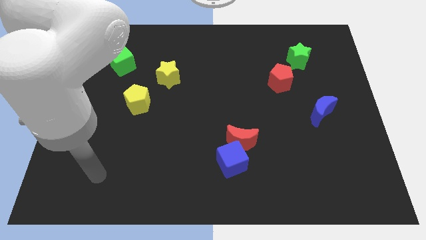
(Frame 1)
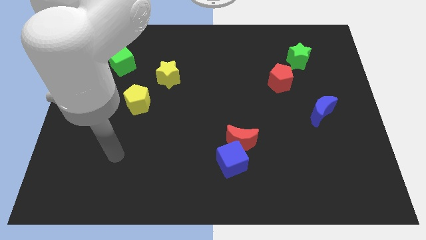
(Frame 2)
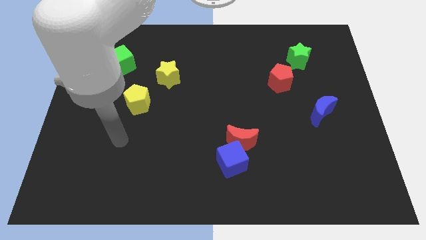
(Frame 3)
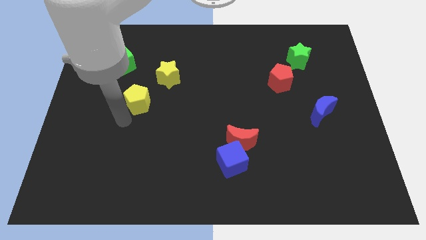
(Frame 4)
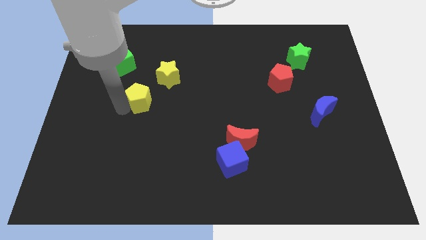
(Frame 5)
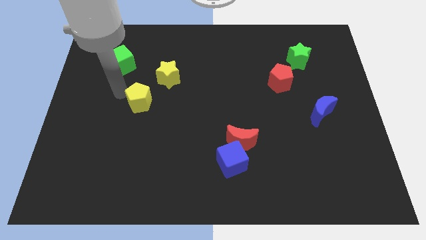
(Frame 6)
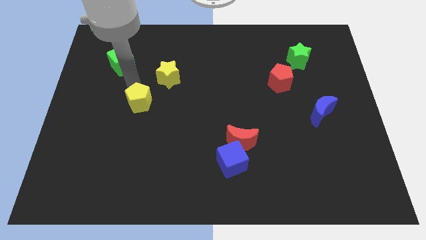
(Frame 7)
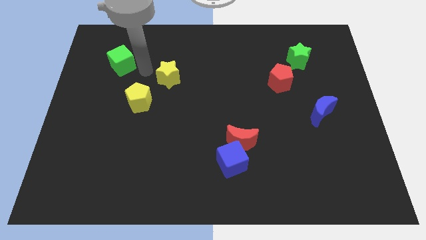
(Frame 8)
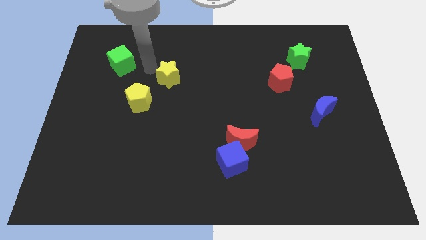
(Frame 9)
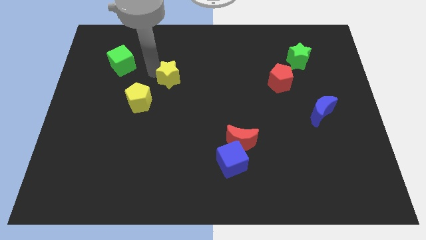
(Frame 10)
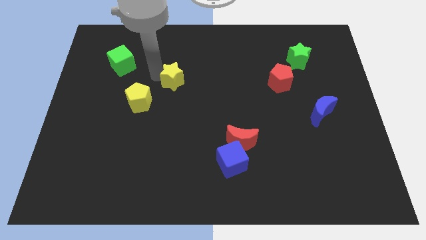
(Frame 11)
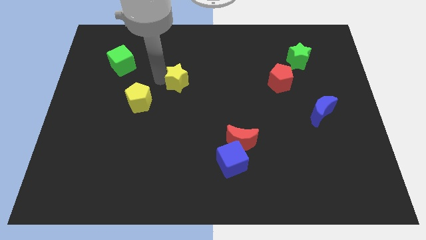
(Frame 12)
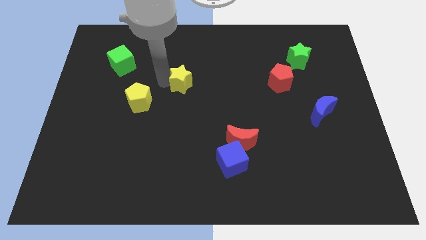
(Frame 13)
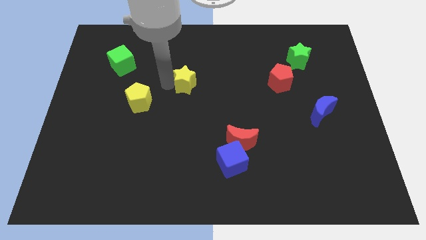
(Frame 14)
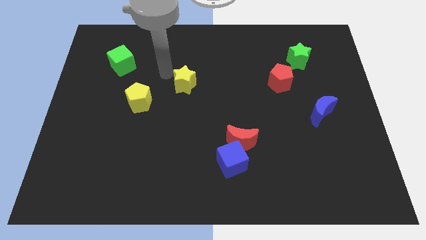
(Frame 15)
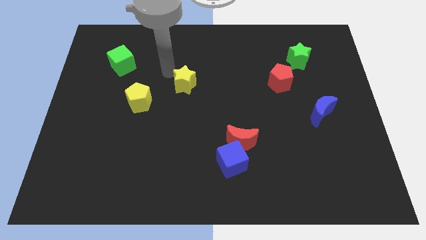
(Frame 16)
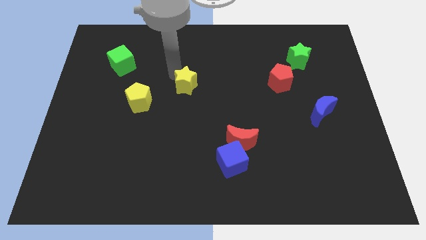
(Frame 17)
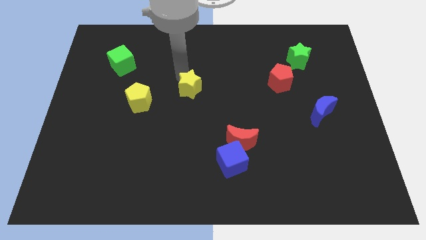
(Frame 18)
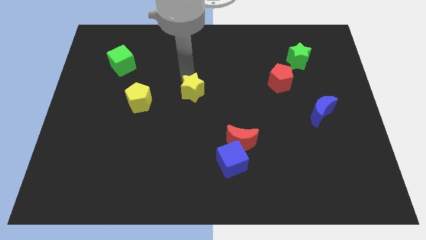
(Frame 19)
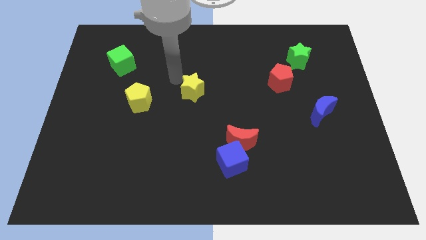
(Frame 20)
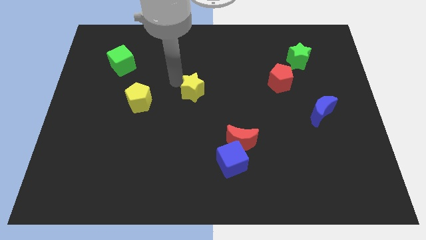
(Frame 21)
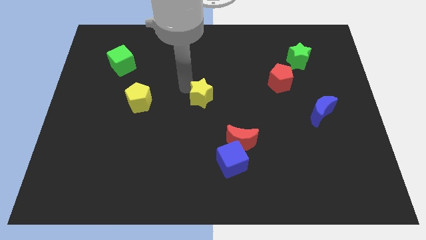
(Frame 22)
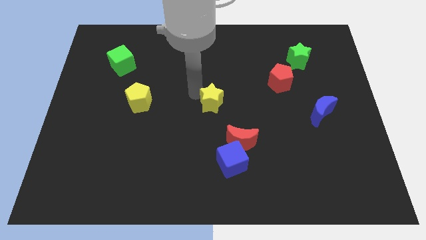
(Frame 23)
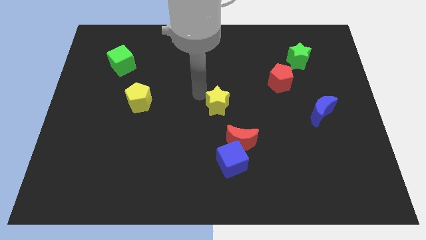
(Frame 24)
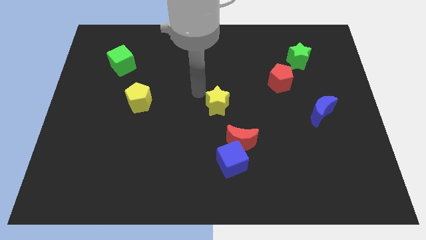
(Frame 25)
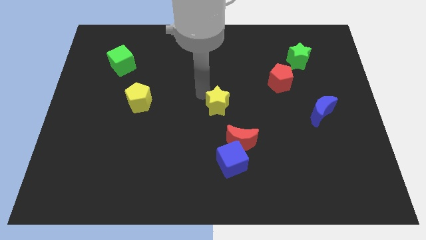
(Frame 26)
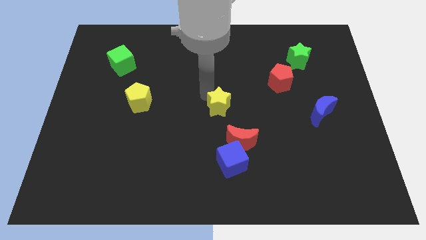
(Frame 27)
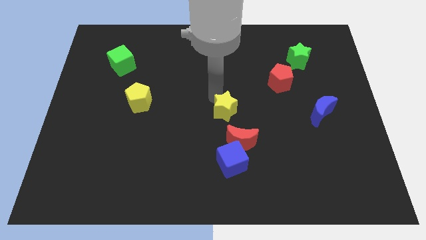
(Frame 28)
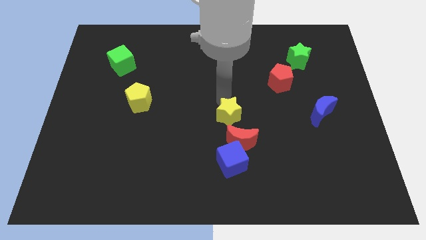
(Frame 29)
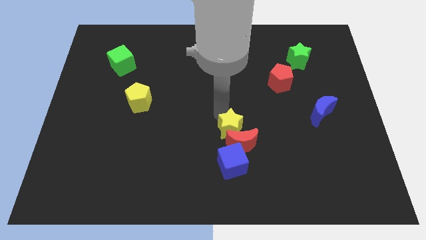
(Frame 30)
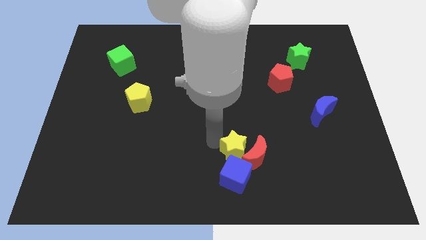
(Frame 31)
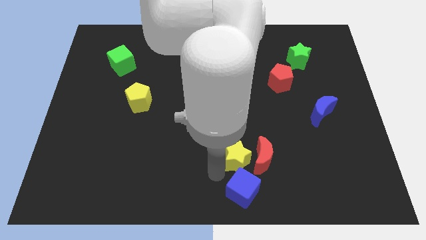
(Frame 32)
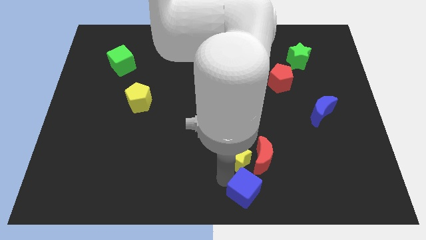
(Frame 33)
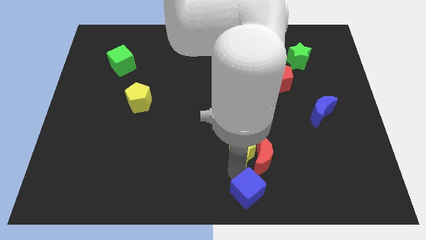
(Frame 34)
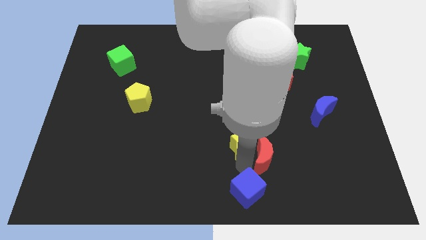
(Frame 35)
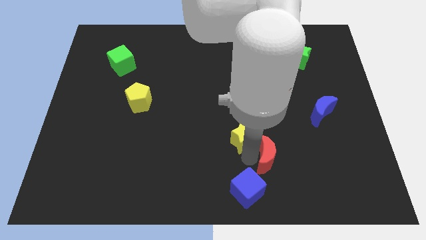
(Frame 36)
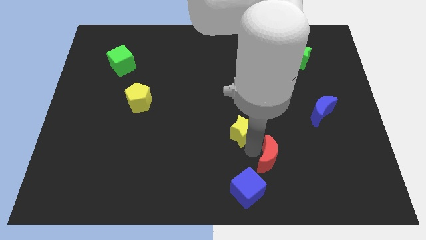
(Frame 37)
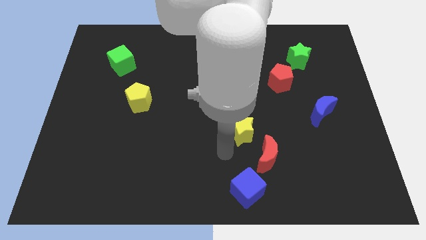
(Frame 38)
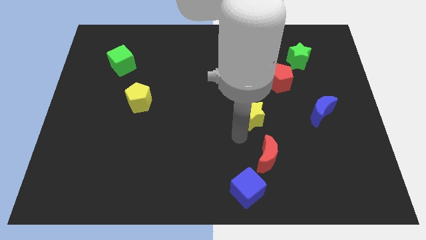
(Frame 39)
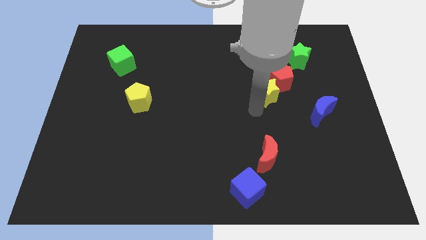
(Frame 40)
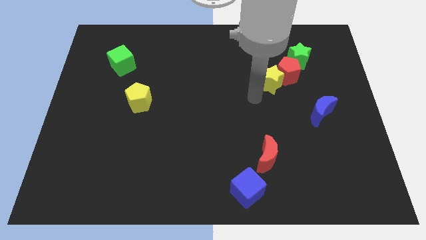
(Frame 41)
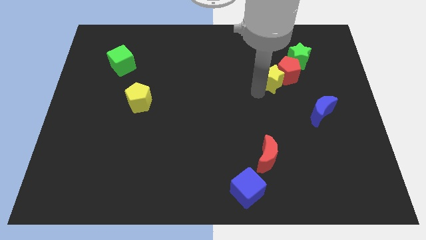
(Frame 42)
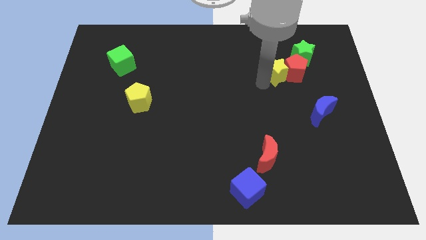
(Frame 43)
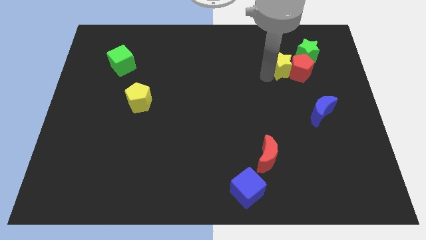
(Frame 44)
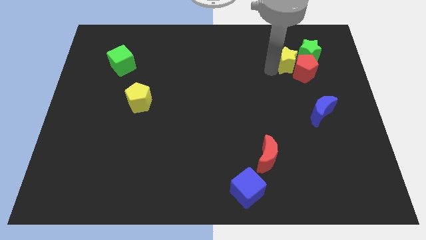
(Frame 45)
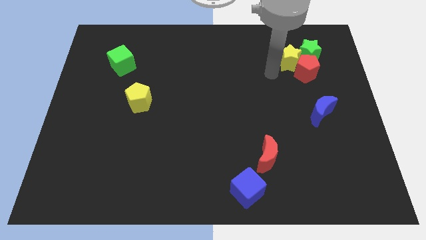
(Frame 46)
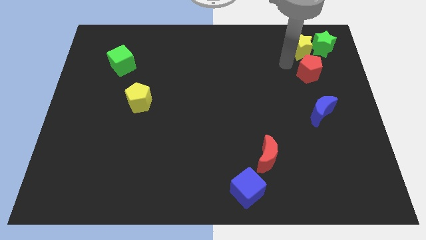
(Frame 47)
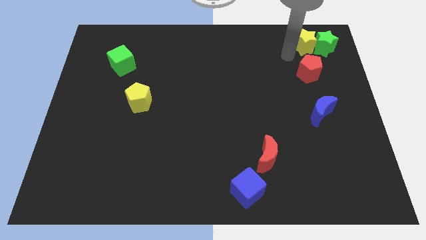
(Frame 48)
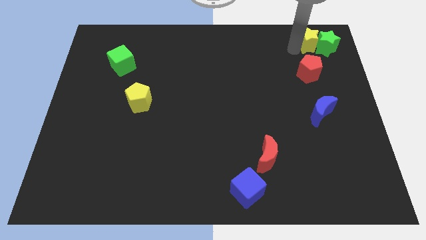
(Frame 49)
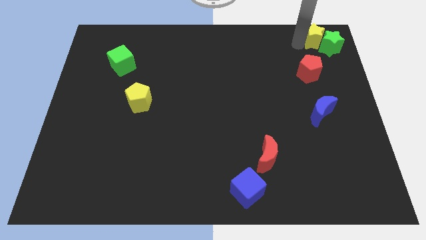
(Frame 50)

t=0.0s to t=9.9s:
push the yellow star to the top right of the board

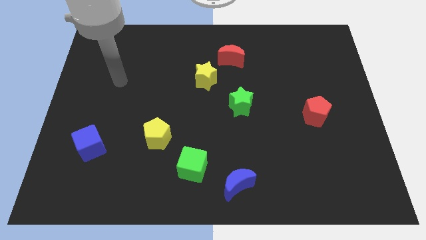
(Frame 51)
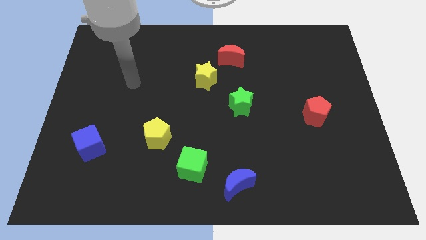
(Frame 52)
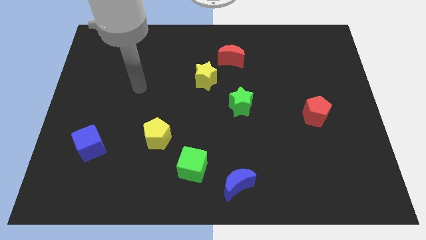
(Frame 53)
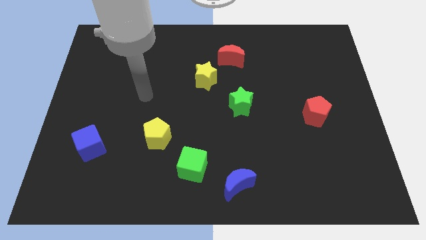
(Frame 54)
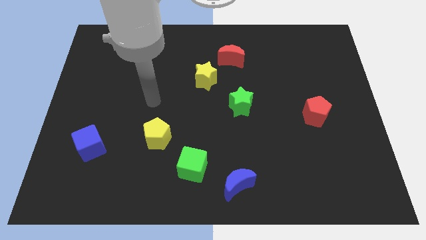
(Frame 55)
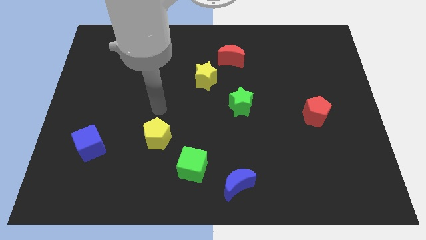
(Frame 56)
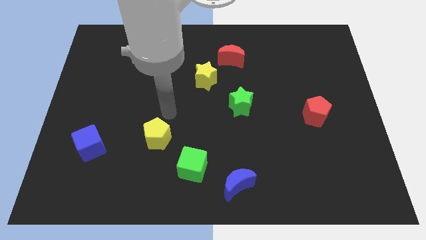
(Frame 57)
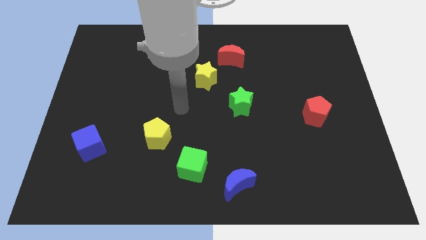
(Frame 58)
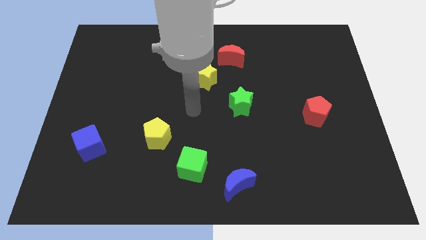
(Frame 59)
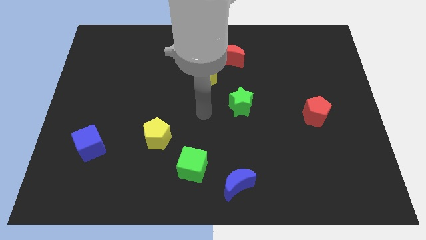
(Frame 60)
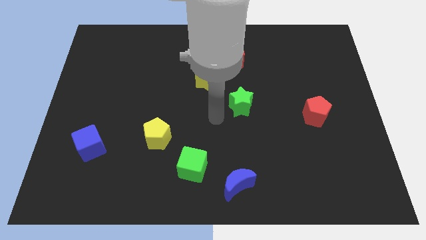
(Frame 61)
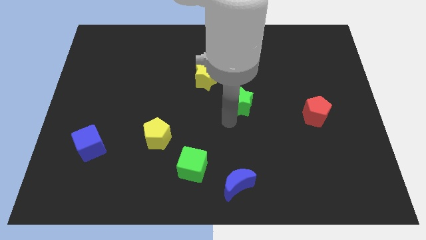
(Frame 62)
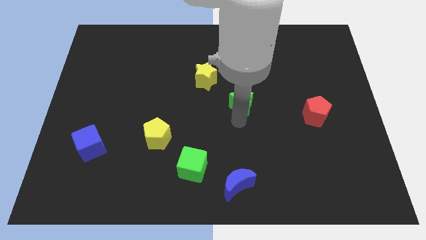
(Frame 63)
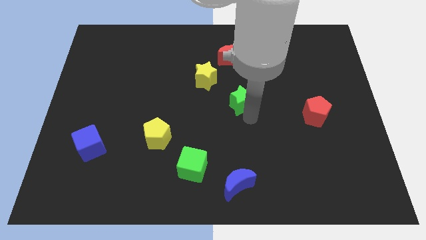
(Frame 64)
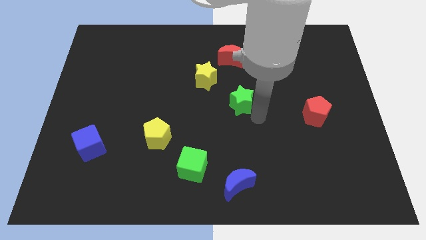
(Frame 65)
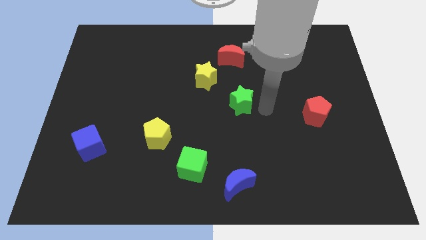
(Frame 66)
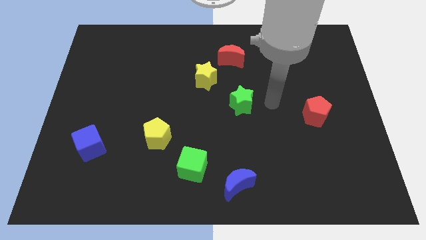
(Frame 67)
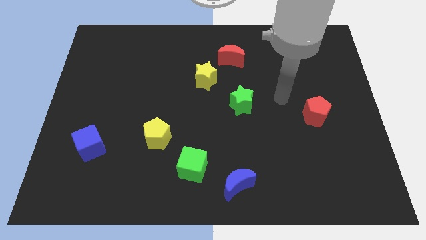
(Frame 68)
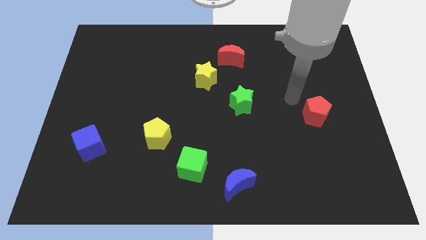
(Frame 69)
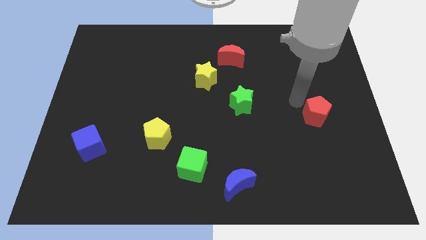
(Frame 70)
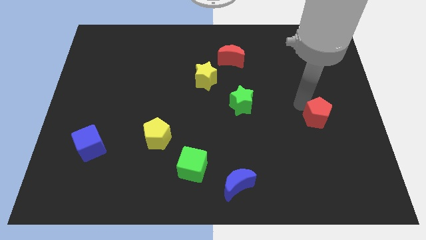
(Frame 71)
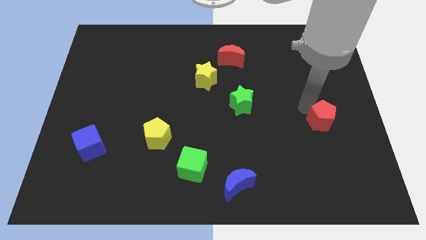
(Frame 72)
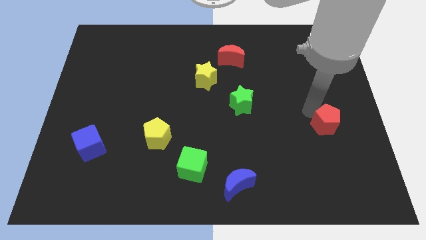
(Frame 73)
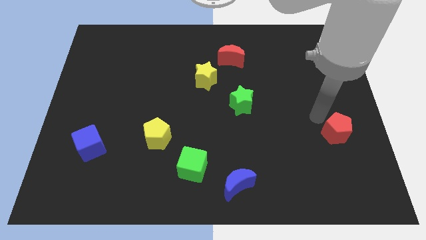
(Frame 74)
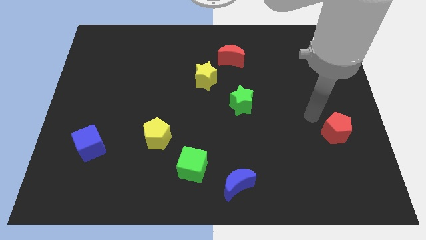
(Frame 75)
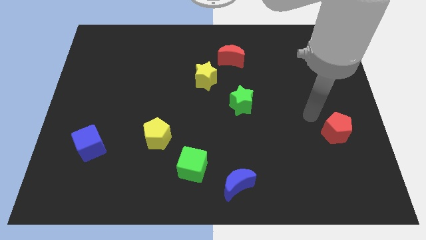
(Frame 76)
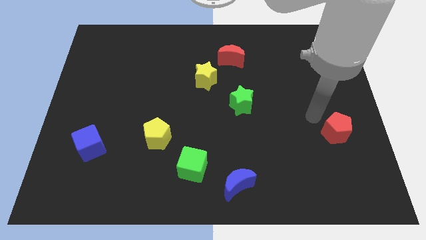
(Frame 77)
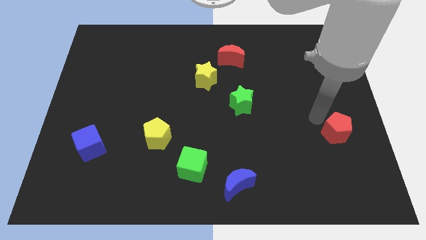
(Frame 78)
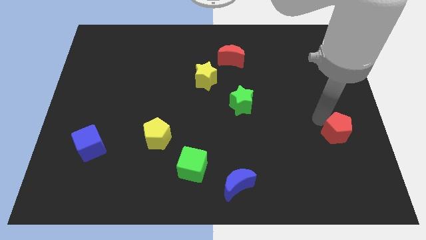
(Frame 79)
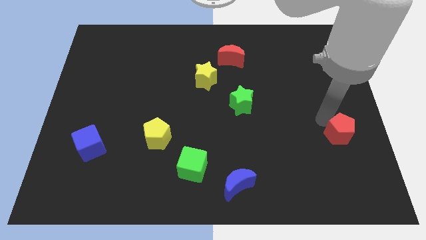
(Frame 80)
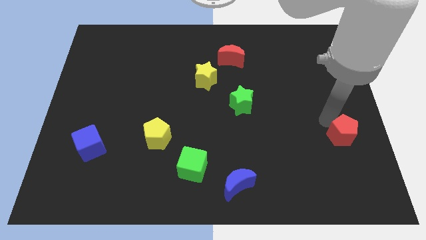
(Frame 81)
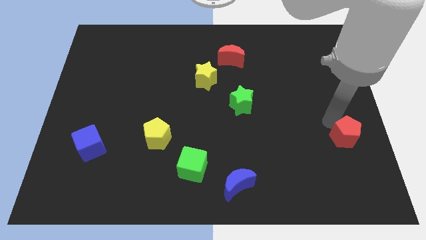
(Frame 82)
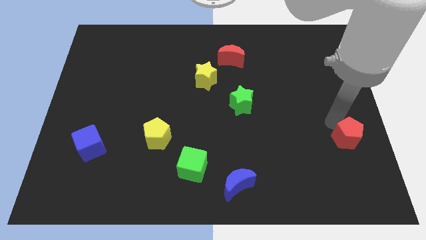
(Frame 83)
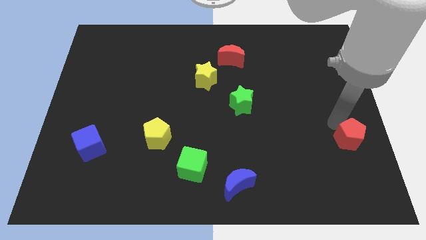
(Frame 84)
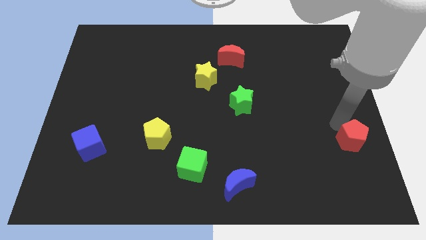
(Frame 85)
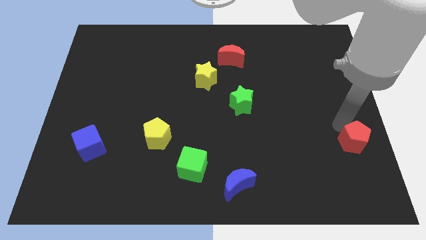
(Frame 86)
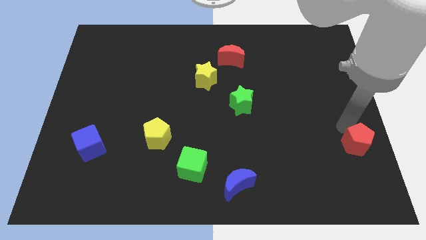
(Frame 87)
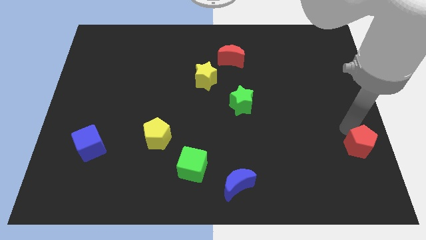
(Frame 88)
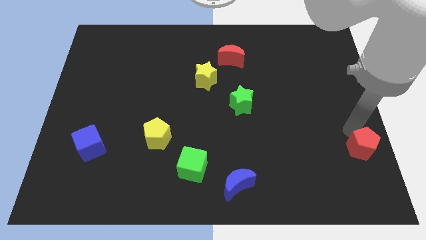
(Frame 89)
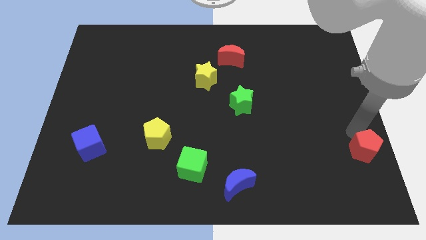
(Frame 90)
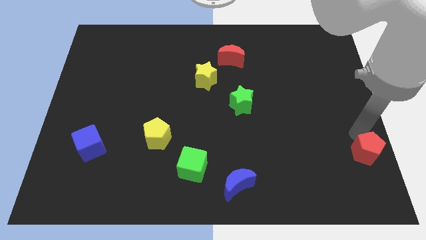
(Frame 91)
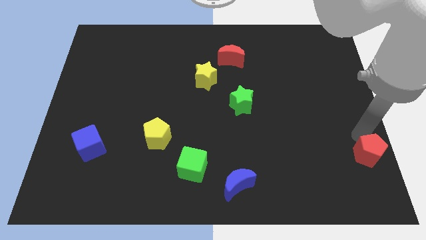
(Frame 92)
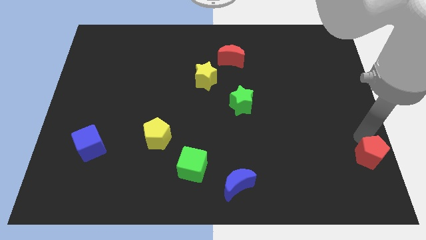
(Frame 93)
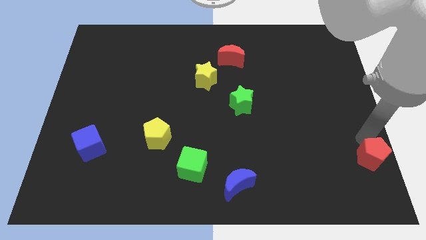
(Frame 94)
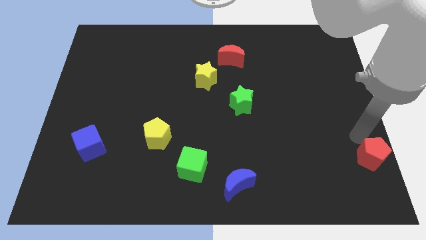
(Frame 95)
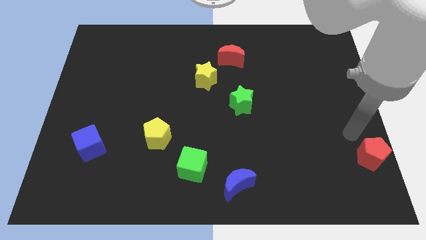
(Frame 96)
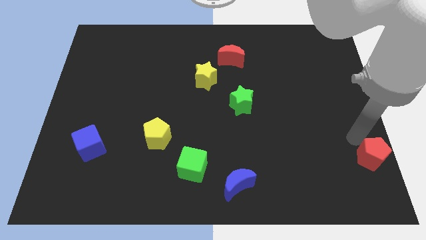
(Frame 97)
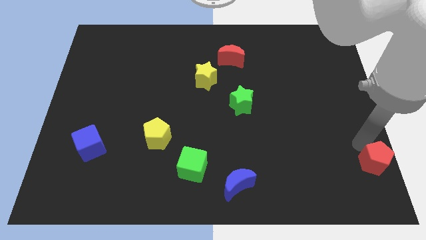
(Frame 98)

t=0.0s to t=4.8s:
push the red pentagon to the bottom right corner
